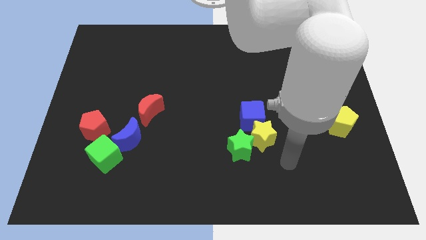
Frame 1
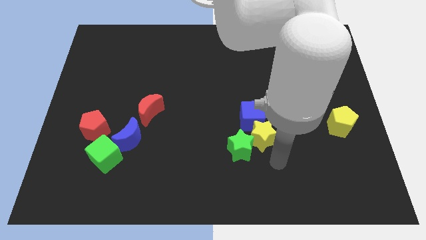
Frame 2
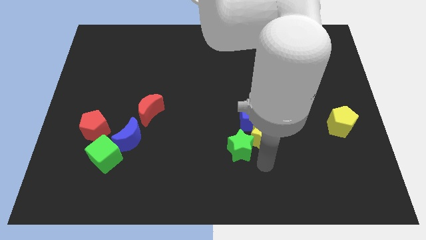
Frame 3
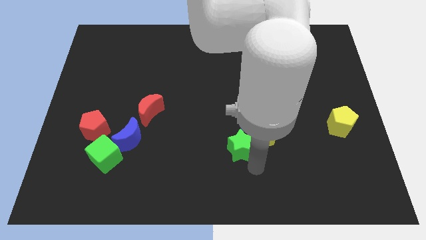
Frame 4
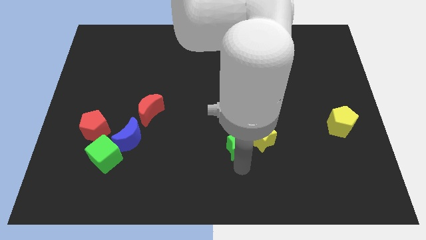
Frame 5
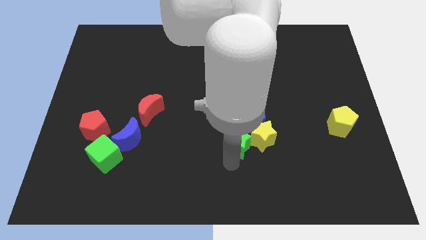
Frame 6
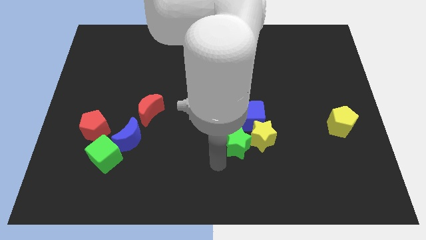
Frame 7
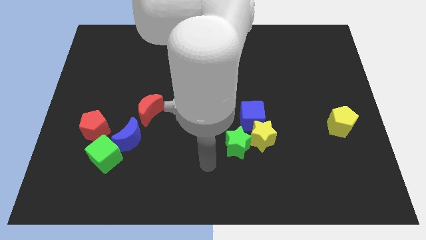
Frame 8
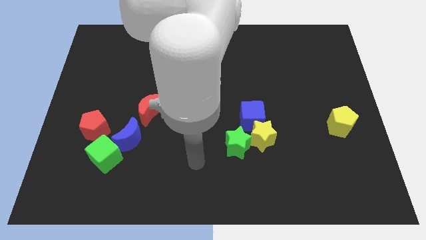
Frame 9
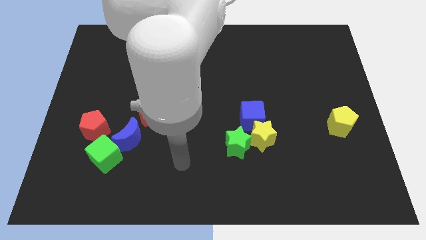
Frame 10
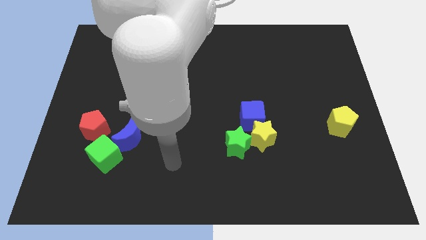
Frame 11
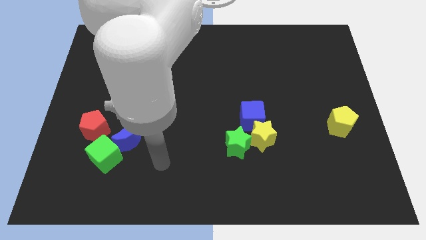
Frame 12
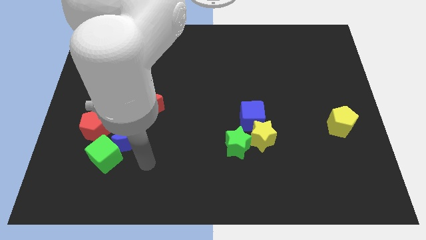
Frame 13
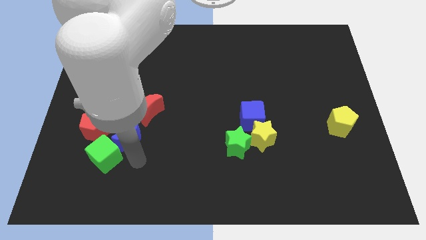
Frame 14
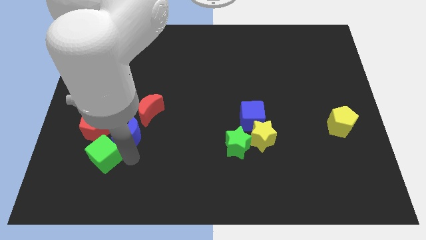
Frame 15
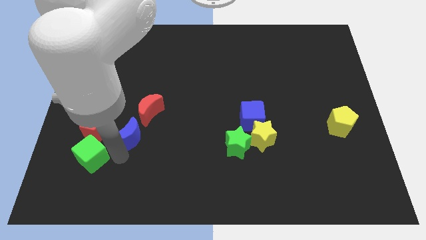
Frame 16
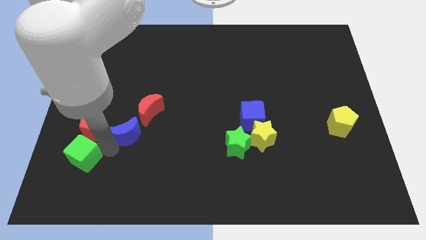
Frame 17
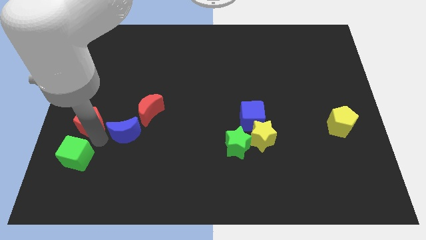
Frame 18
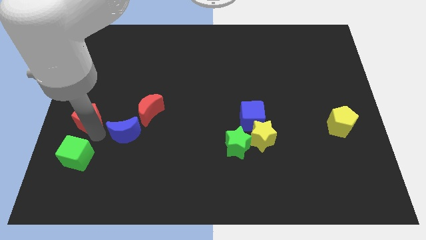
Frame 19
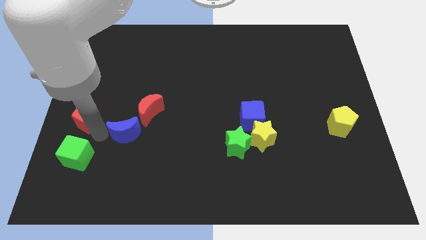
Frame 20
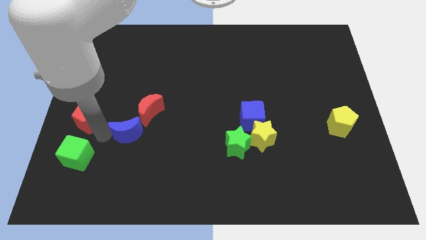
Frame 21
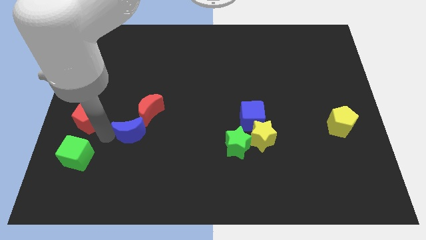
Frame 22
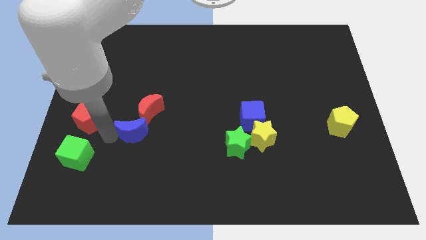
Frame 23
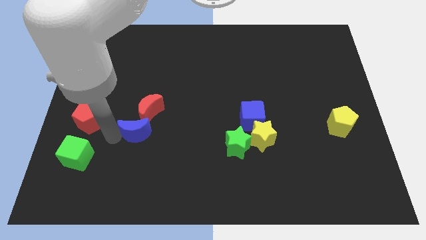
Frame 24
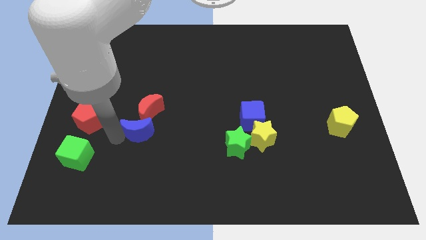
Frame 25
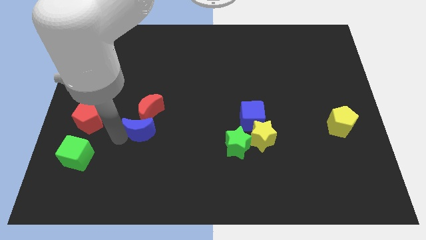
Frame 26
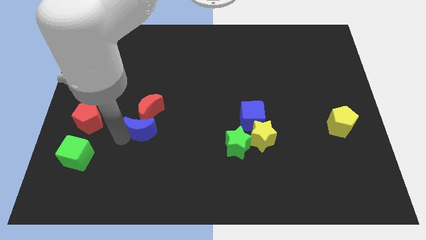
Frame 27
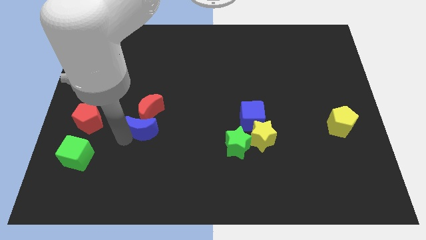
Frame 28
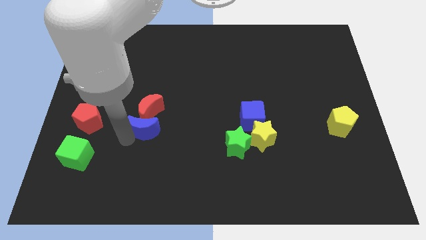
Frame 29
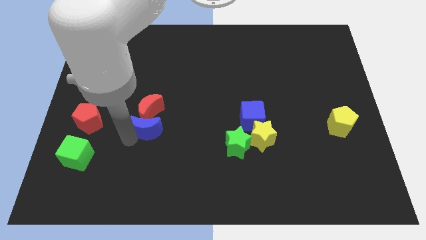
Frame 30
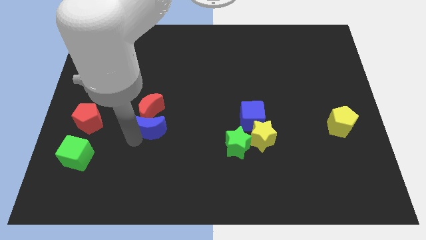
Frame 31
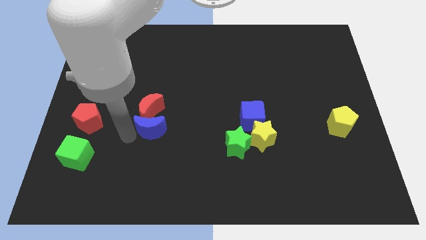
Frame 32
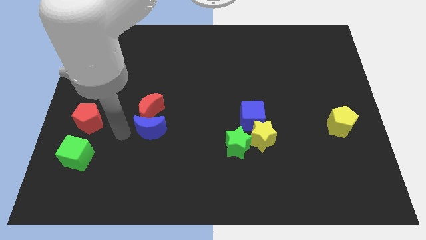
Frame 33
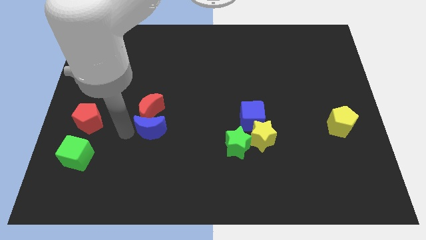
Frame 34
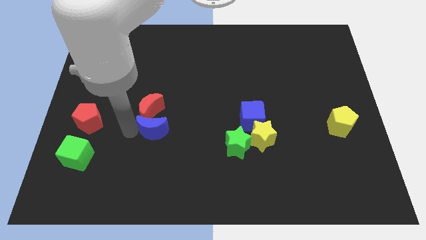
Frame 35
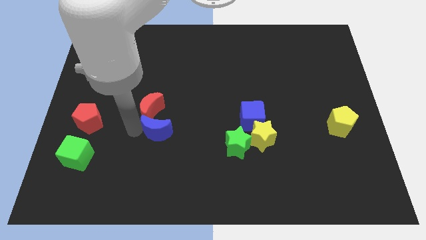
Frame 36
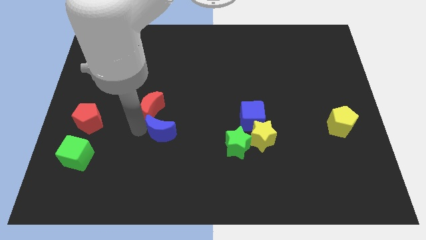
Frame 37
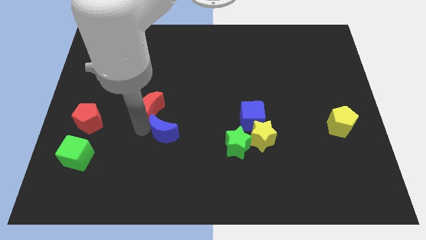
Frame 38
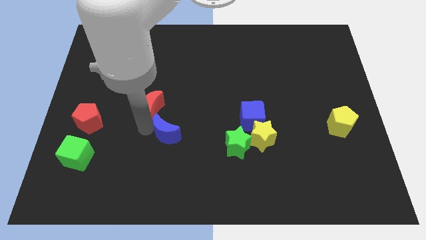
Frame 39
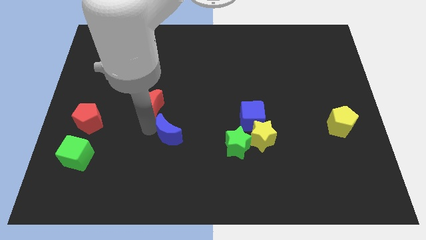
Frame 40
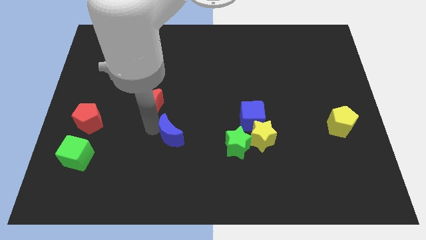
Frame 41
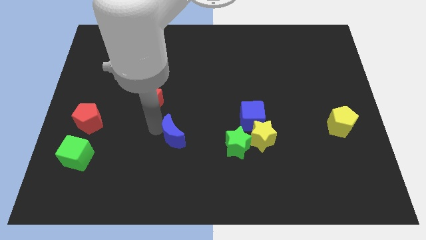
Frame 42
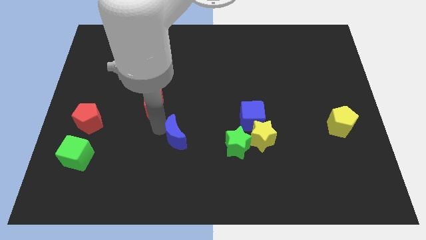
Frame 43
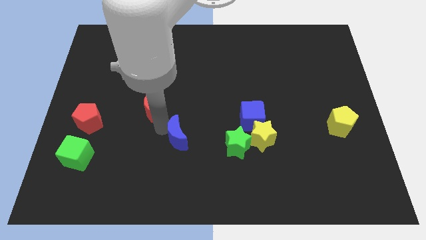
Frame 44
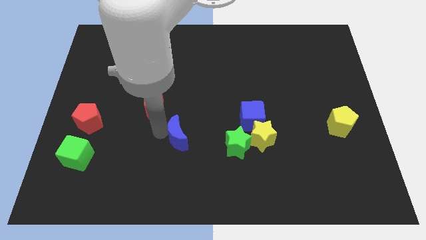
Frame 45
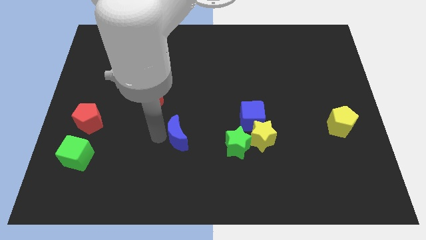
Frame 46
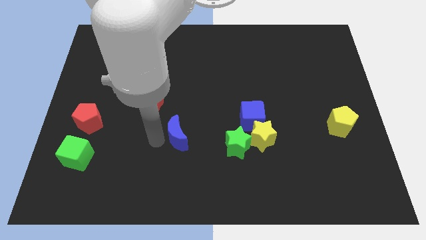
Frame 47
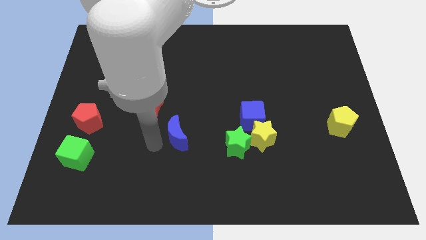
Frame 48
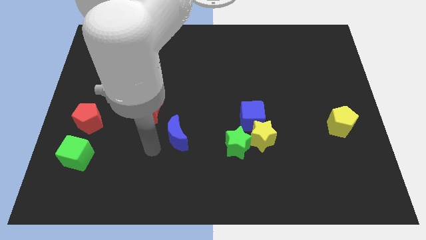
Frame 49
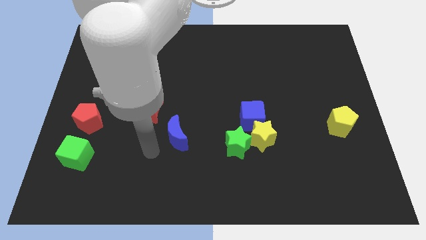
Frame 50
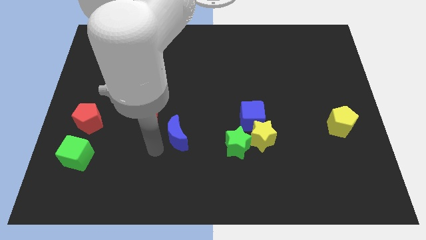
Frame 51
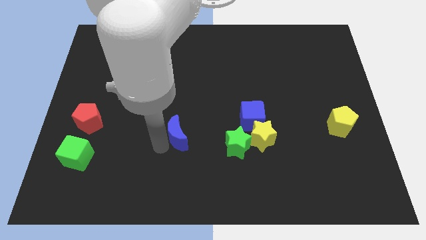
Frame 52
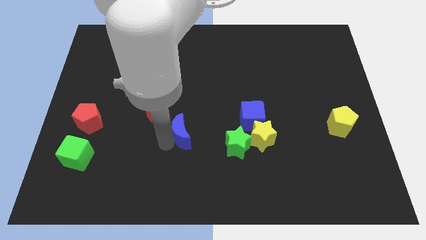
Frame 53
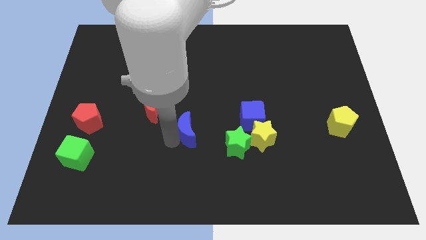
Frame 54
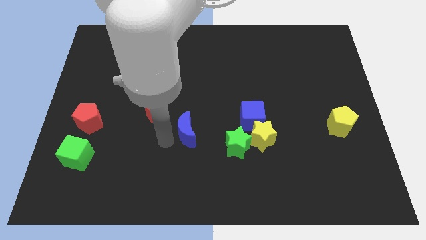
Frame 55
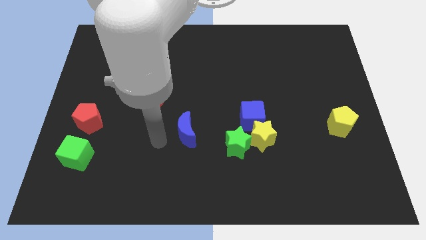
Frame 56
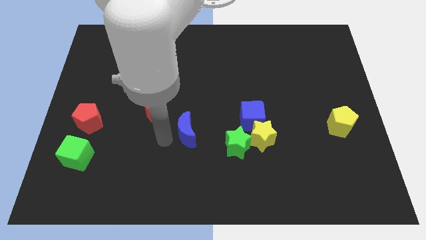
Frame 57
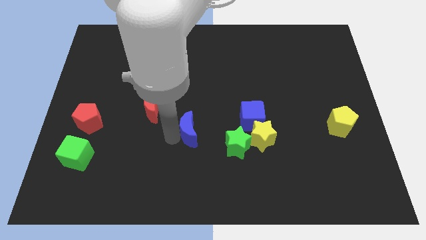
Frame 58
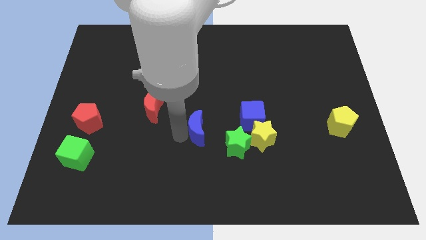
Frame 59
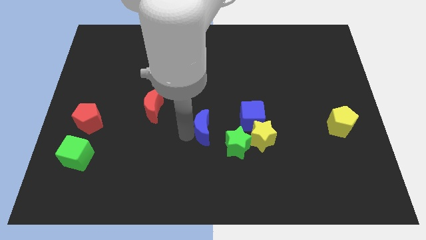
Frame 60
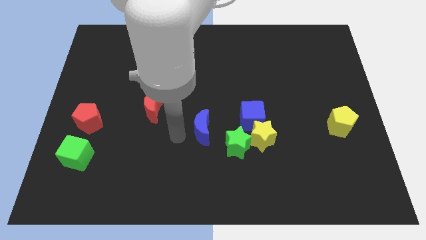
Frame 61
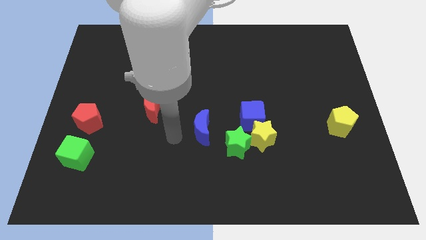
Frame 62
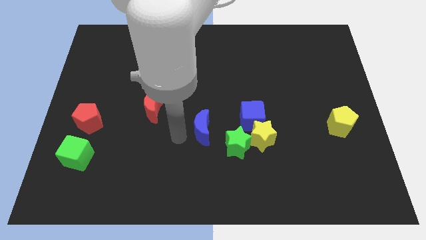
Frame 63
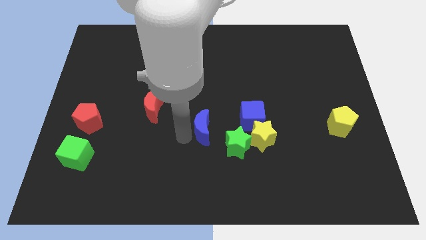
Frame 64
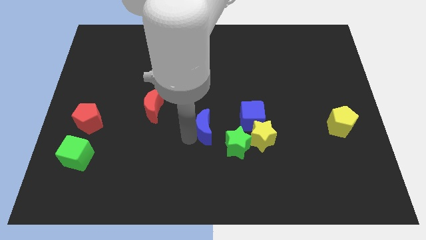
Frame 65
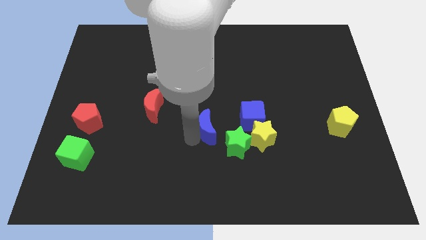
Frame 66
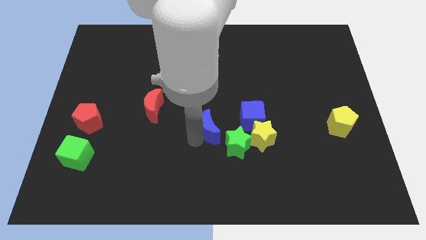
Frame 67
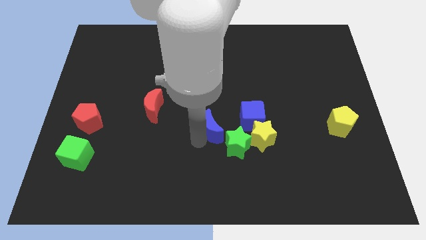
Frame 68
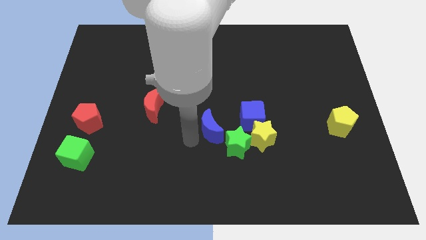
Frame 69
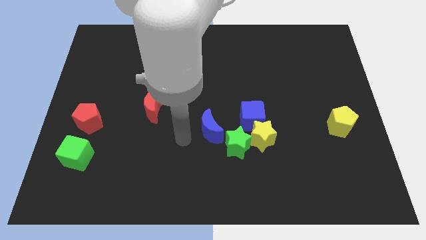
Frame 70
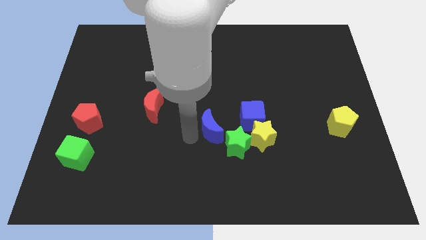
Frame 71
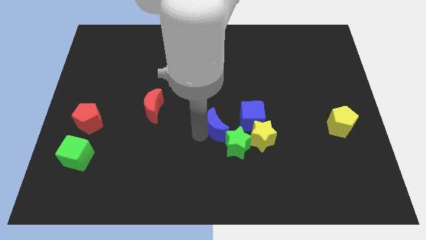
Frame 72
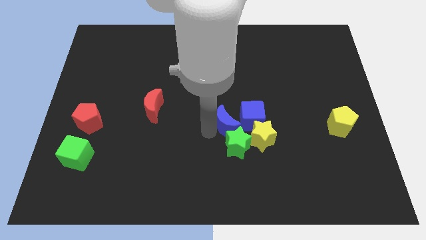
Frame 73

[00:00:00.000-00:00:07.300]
push the blue moon to the blue cube

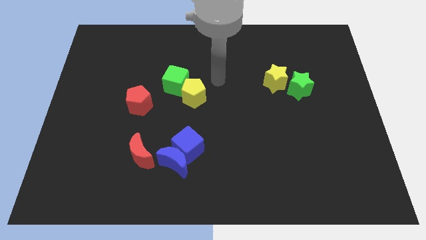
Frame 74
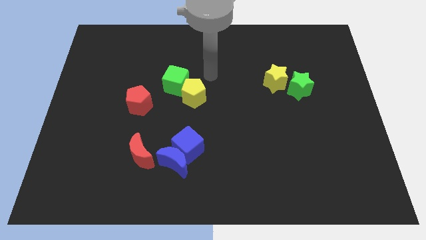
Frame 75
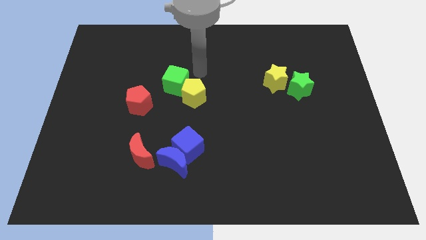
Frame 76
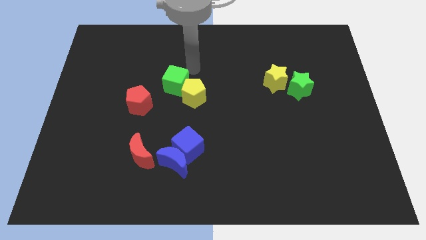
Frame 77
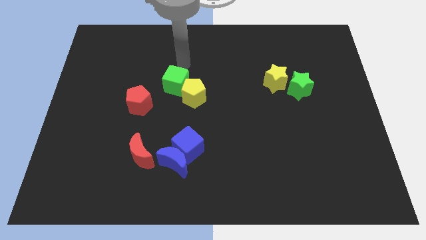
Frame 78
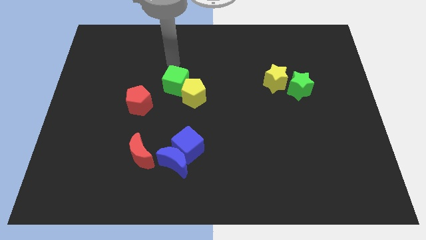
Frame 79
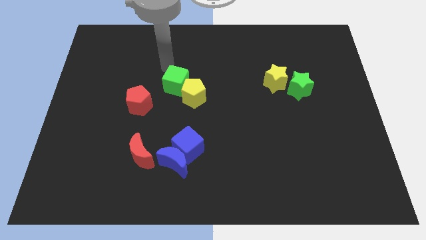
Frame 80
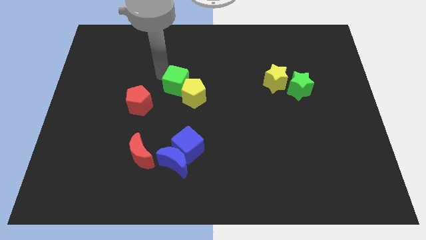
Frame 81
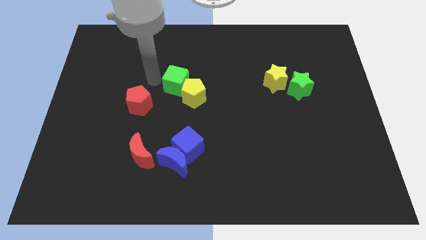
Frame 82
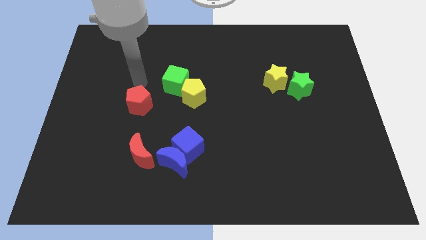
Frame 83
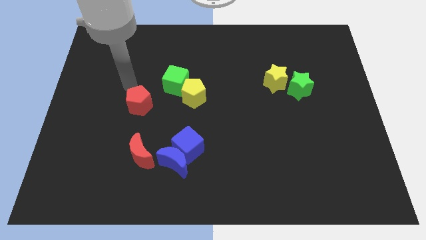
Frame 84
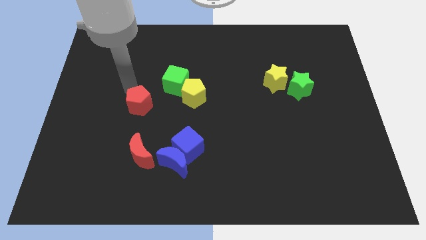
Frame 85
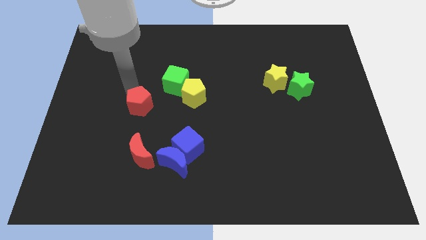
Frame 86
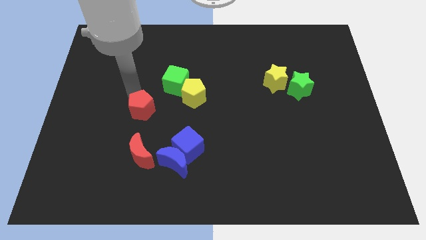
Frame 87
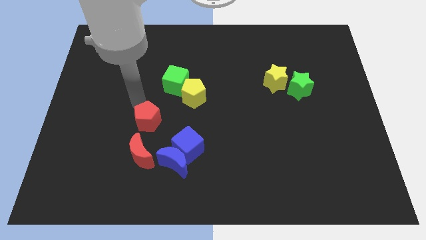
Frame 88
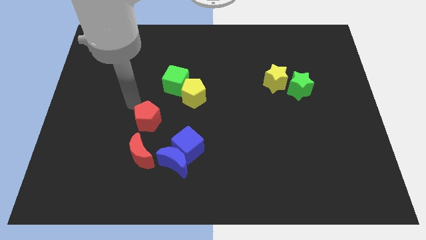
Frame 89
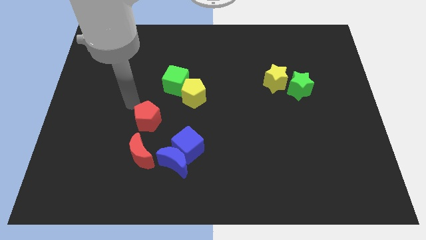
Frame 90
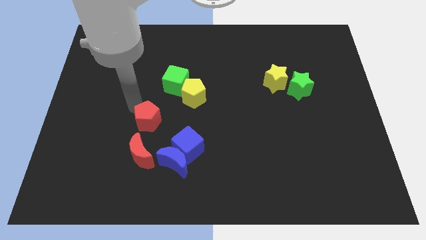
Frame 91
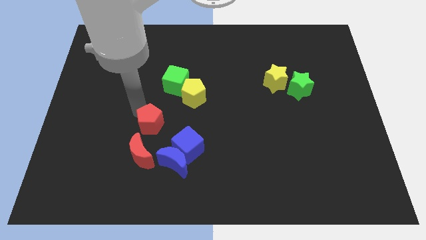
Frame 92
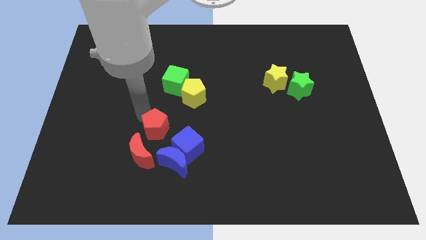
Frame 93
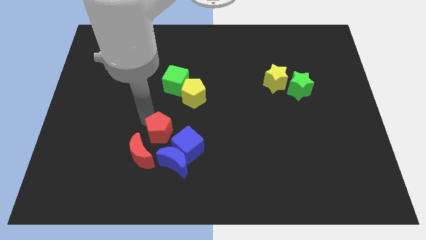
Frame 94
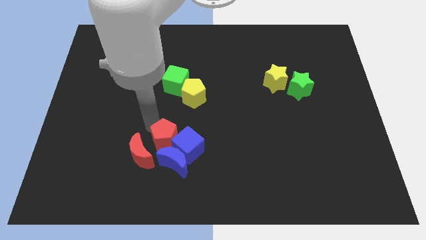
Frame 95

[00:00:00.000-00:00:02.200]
slide the red pentagon next to the blue cube
